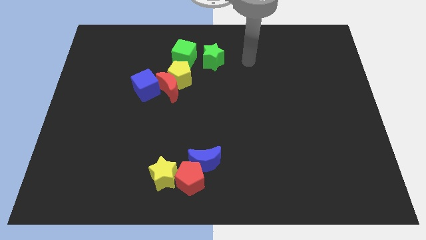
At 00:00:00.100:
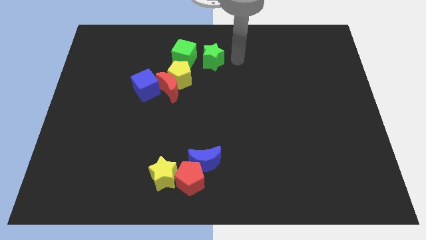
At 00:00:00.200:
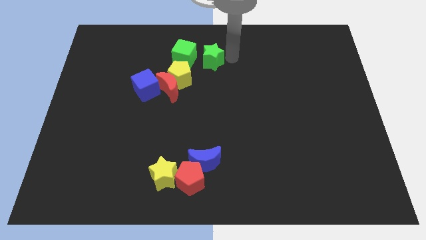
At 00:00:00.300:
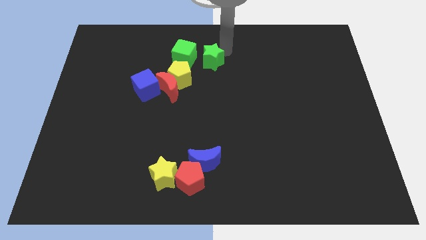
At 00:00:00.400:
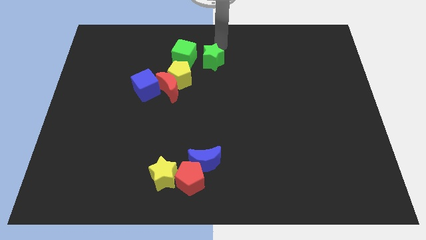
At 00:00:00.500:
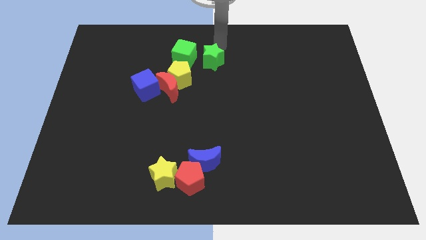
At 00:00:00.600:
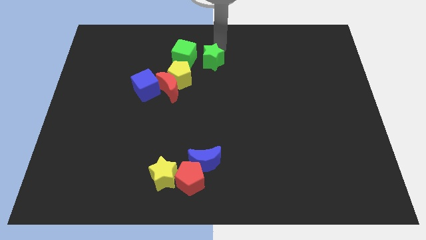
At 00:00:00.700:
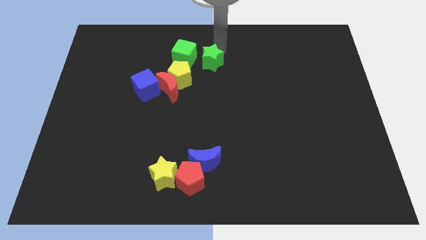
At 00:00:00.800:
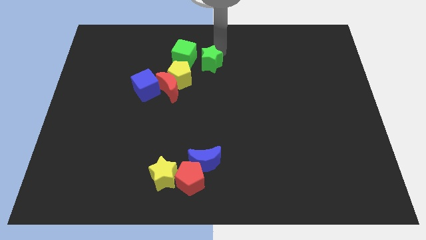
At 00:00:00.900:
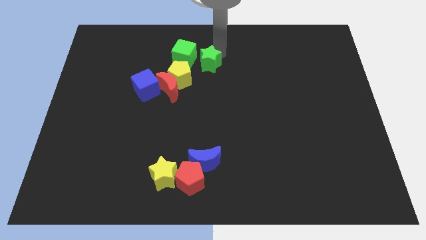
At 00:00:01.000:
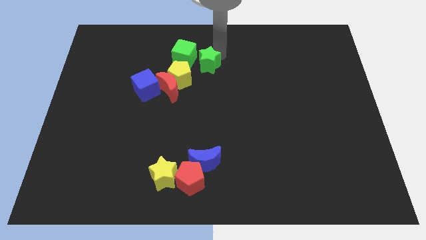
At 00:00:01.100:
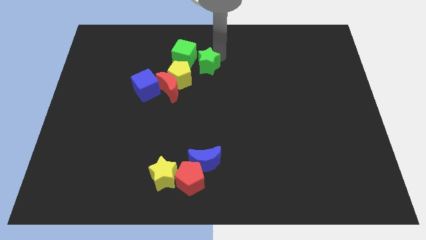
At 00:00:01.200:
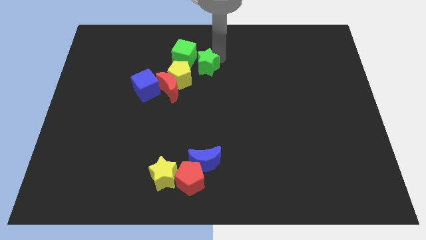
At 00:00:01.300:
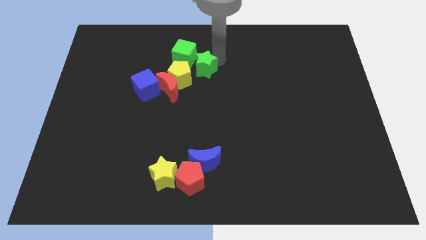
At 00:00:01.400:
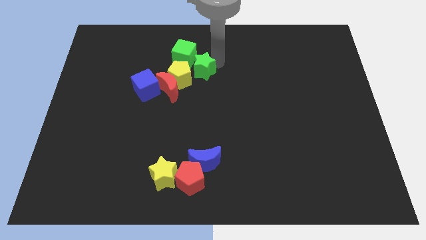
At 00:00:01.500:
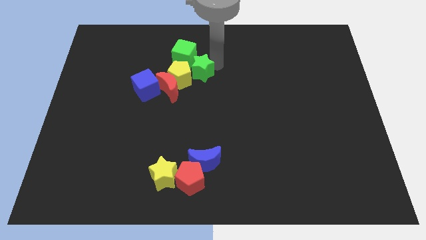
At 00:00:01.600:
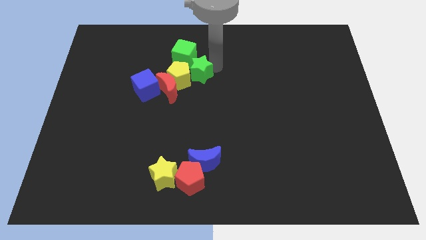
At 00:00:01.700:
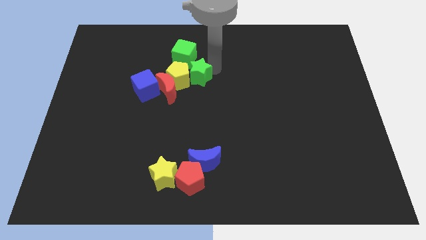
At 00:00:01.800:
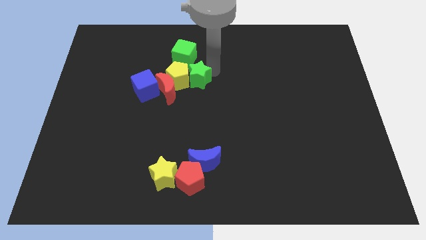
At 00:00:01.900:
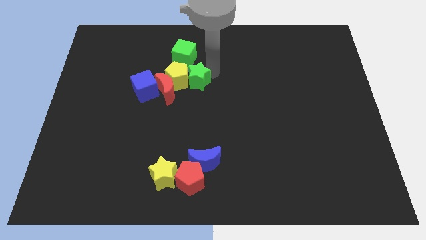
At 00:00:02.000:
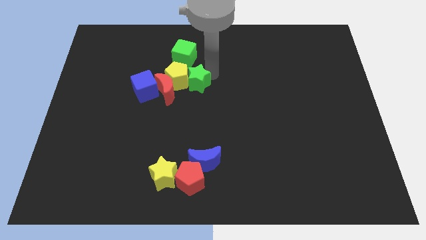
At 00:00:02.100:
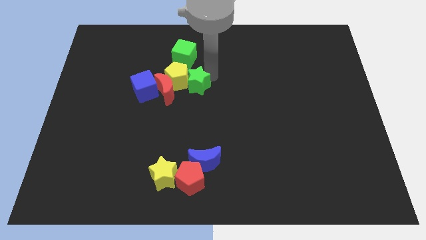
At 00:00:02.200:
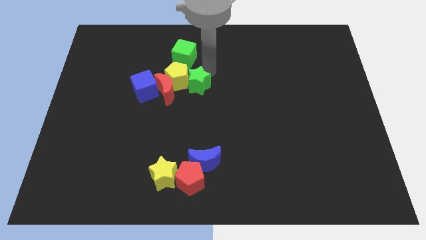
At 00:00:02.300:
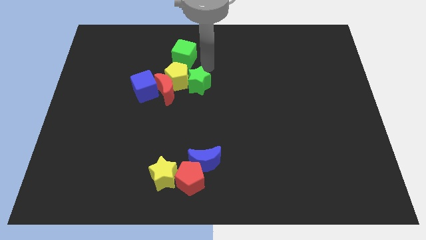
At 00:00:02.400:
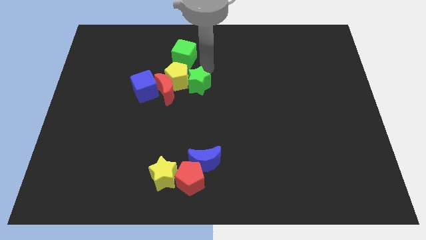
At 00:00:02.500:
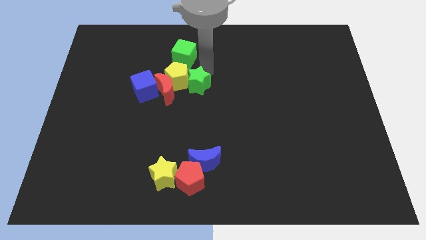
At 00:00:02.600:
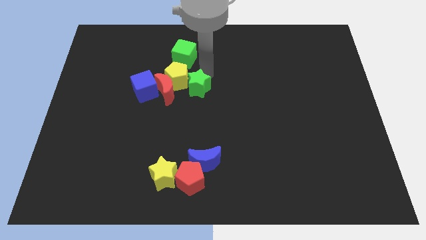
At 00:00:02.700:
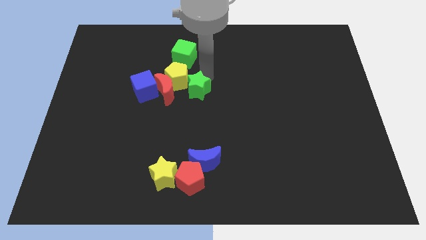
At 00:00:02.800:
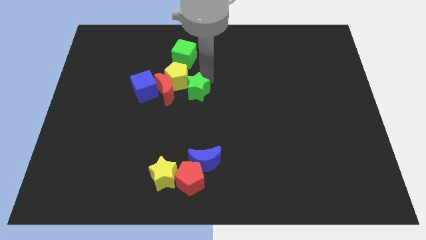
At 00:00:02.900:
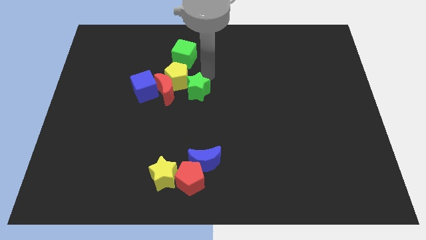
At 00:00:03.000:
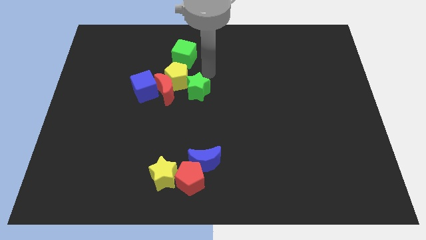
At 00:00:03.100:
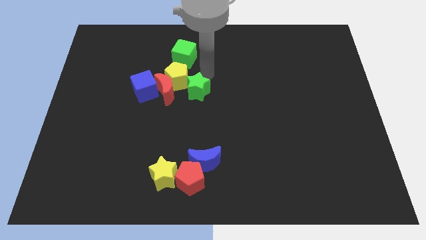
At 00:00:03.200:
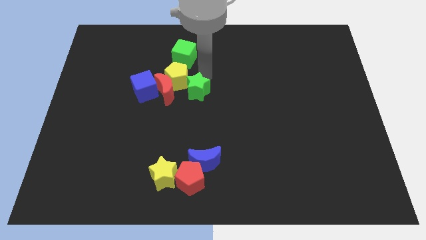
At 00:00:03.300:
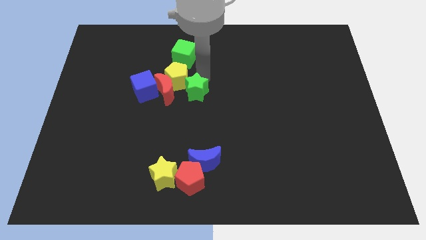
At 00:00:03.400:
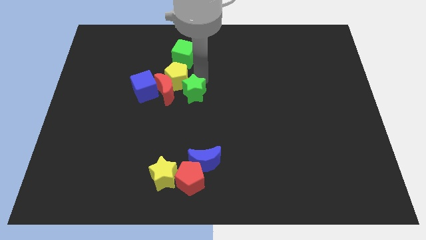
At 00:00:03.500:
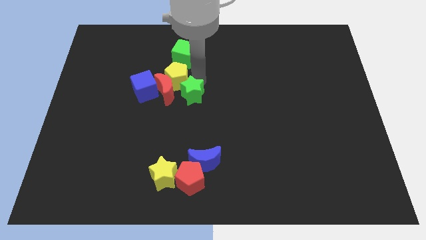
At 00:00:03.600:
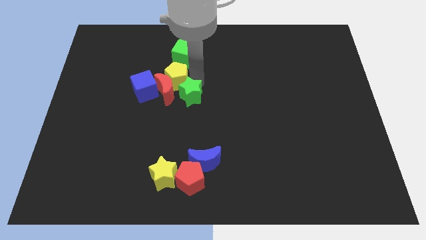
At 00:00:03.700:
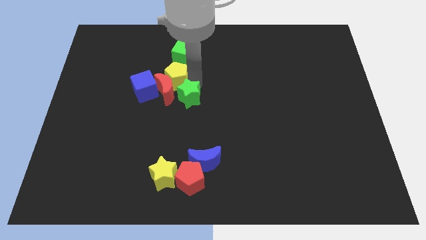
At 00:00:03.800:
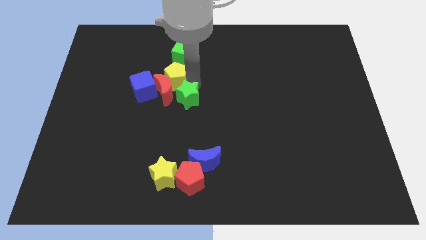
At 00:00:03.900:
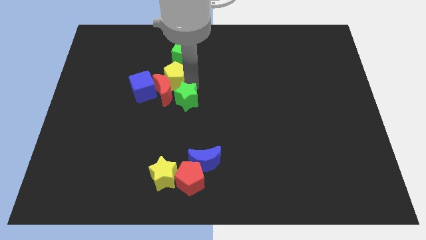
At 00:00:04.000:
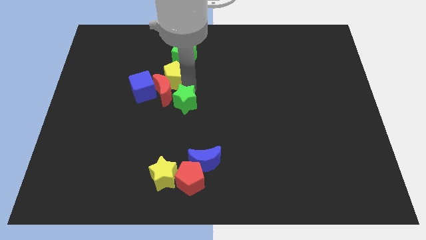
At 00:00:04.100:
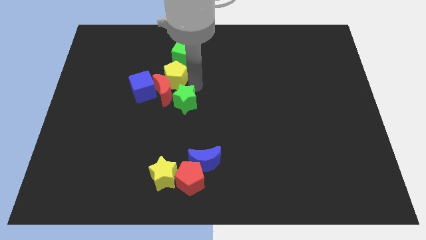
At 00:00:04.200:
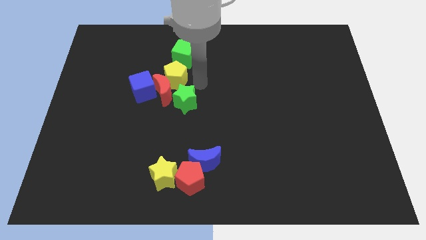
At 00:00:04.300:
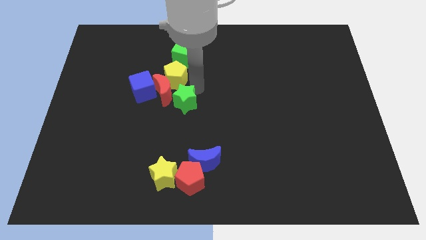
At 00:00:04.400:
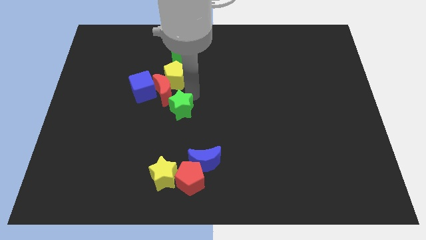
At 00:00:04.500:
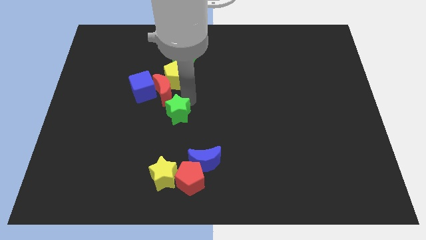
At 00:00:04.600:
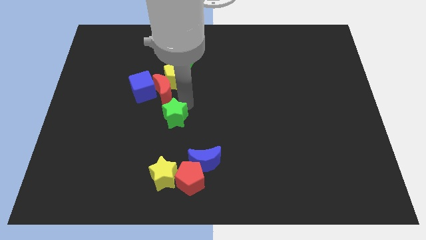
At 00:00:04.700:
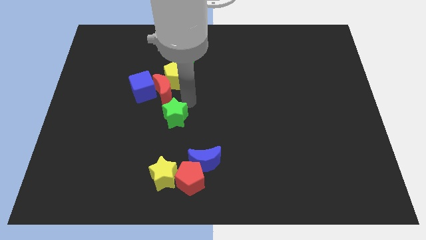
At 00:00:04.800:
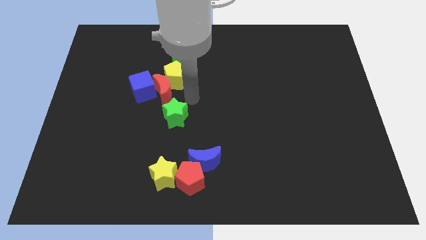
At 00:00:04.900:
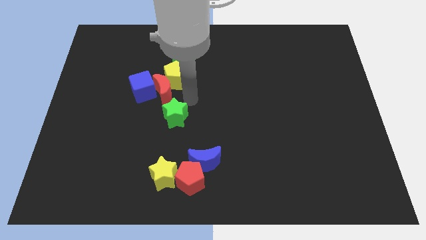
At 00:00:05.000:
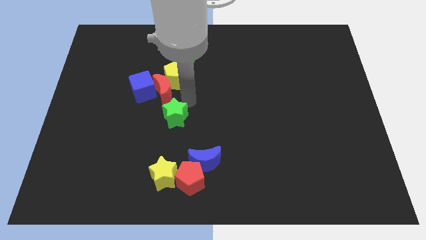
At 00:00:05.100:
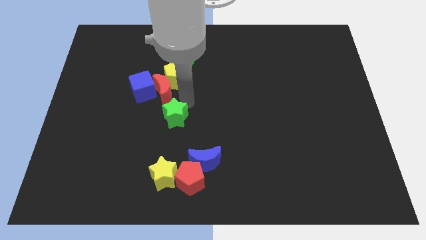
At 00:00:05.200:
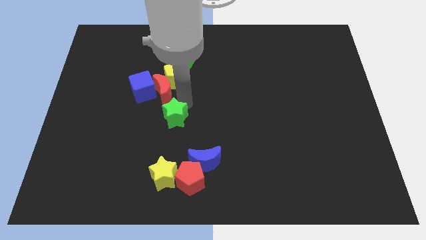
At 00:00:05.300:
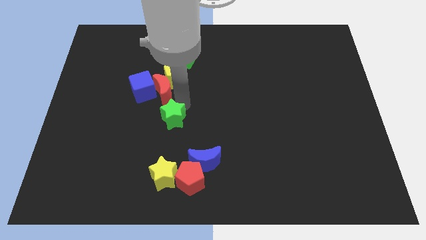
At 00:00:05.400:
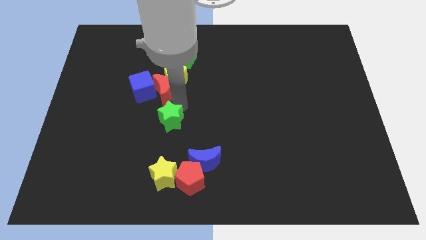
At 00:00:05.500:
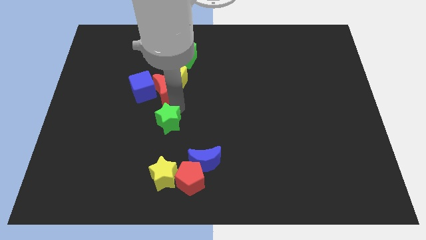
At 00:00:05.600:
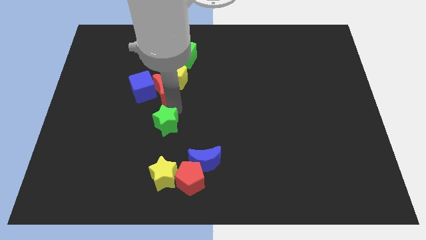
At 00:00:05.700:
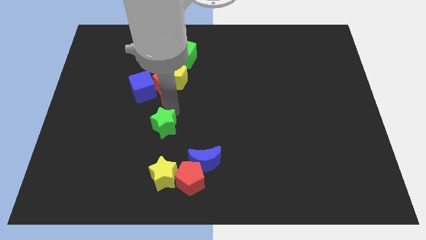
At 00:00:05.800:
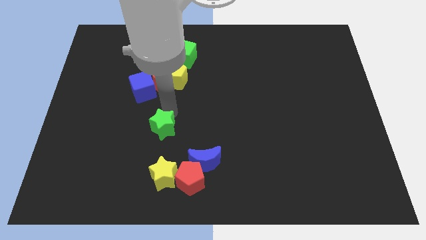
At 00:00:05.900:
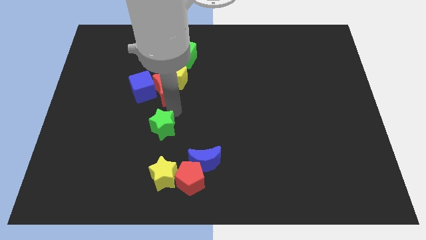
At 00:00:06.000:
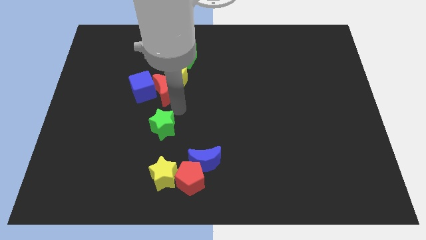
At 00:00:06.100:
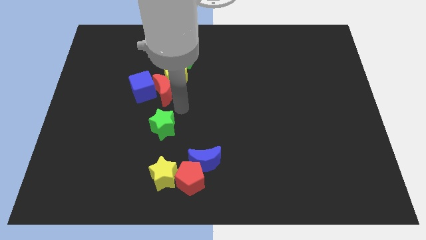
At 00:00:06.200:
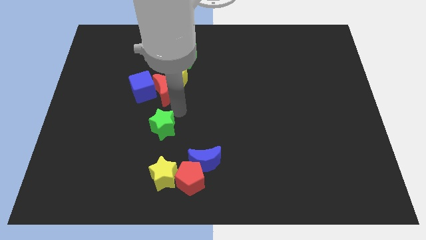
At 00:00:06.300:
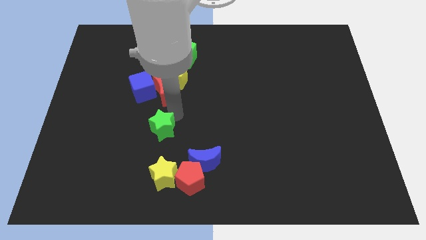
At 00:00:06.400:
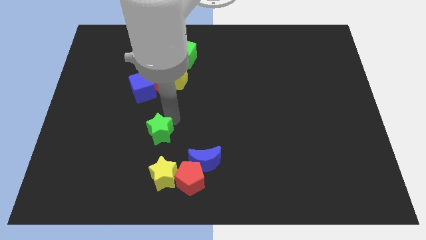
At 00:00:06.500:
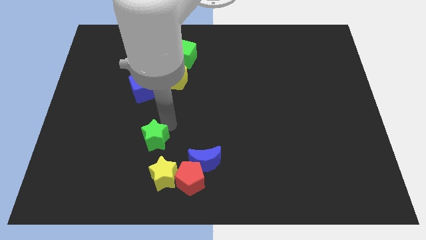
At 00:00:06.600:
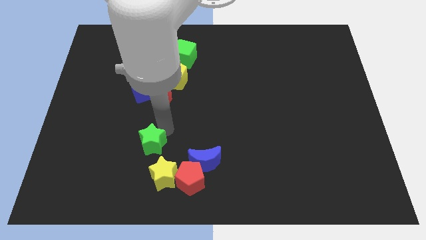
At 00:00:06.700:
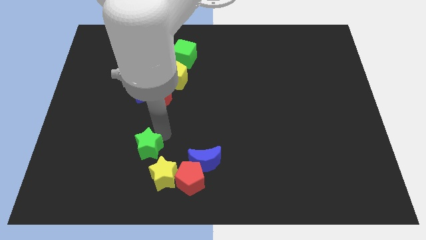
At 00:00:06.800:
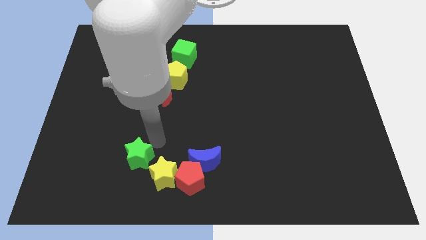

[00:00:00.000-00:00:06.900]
move the green star to the left of the yellow star
